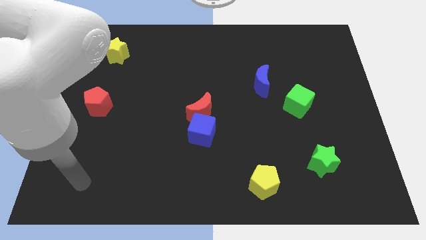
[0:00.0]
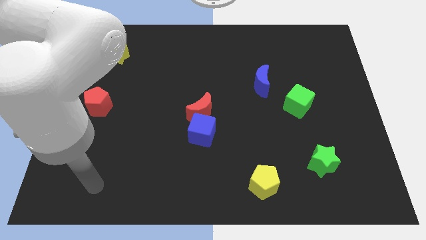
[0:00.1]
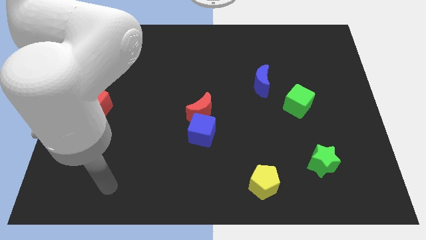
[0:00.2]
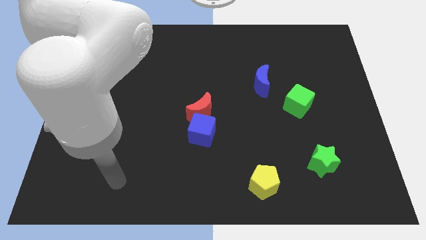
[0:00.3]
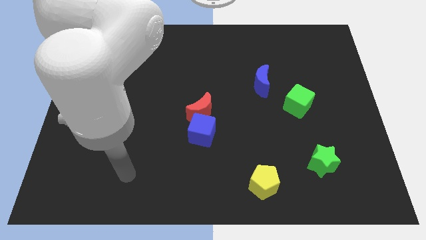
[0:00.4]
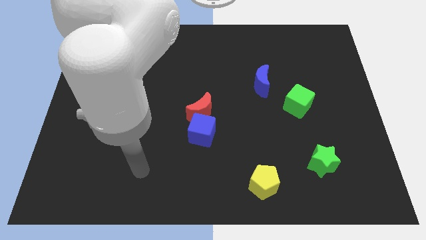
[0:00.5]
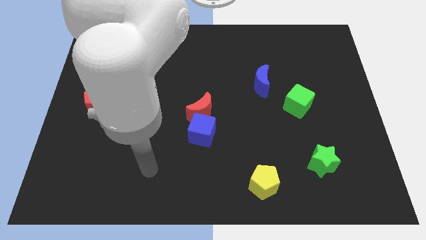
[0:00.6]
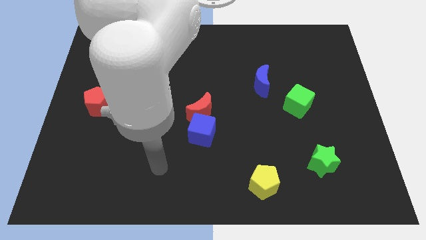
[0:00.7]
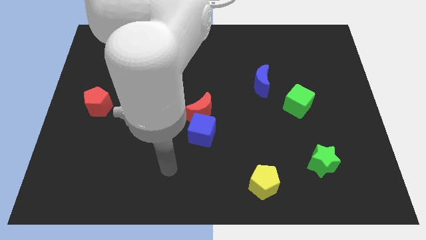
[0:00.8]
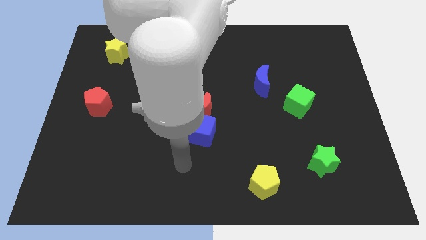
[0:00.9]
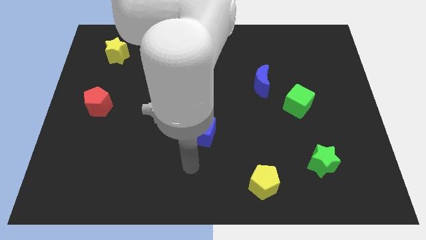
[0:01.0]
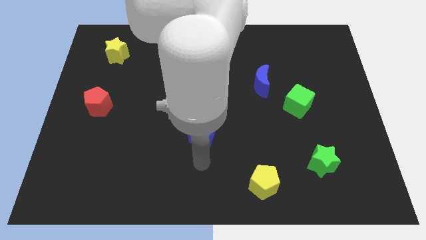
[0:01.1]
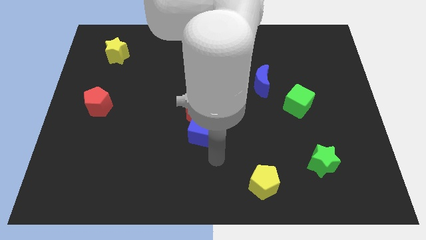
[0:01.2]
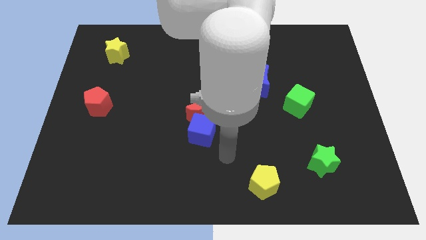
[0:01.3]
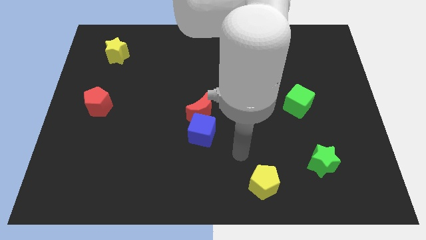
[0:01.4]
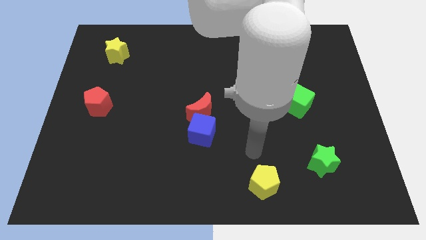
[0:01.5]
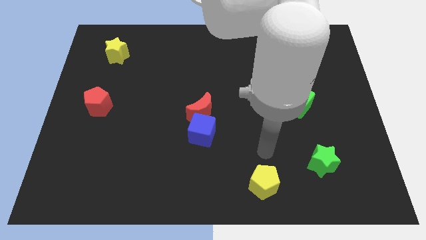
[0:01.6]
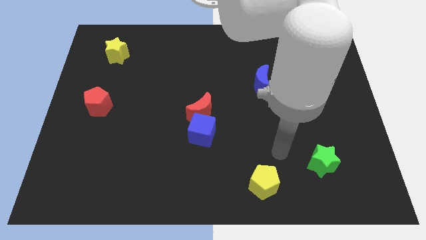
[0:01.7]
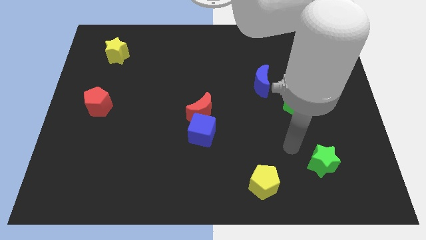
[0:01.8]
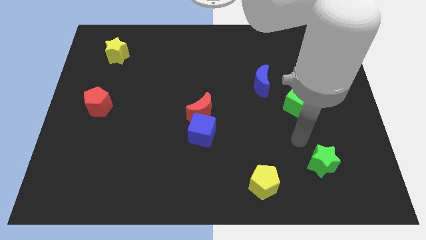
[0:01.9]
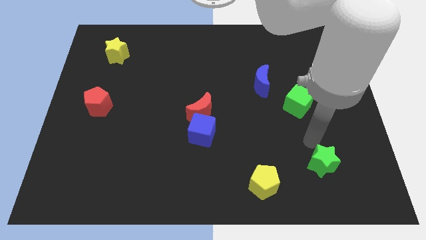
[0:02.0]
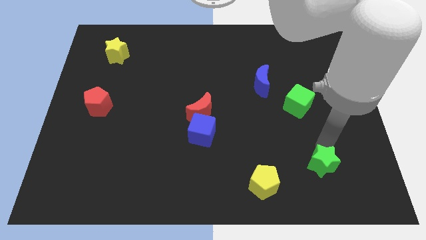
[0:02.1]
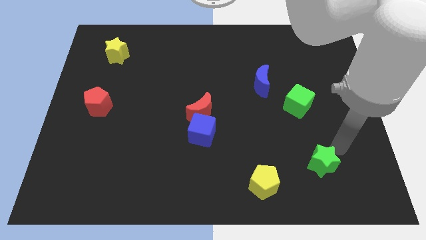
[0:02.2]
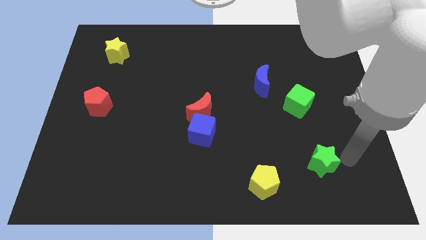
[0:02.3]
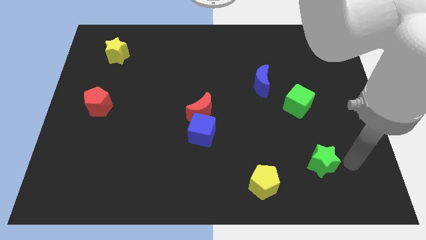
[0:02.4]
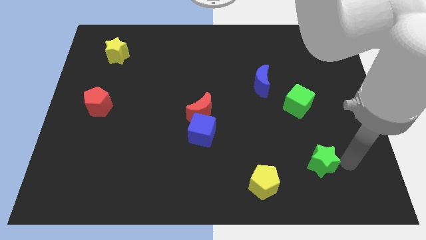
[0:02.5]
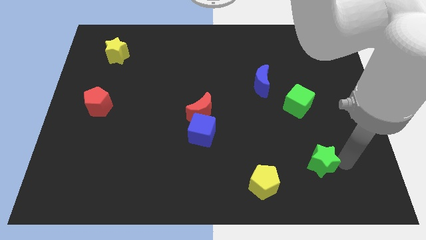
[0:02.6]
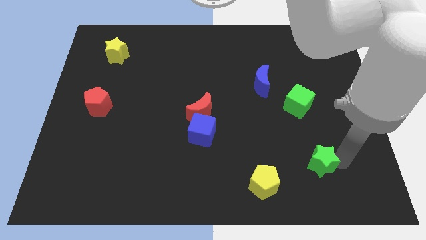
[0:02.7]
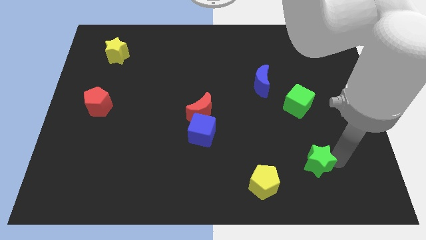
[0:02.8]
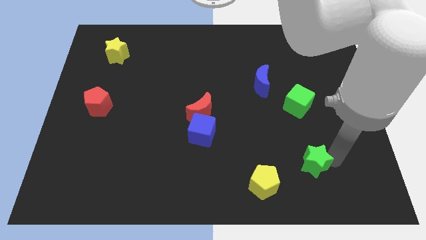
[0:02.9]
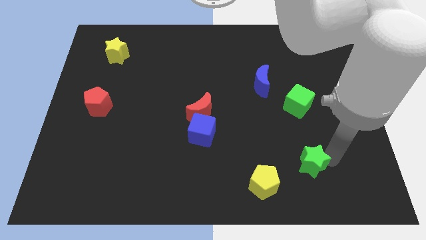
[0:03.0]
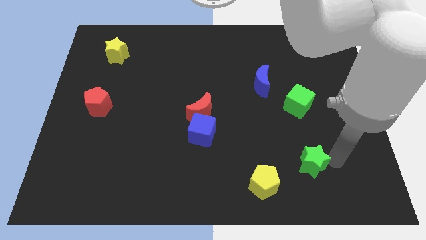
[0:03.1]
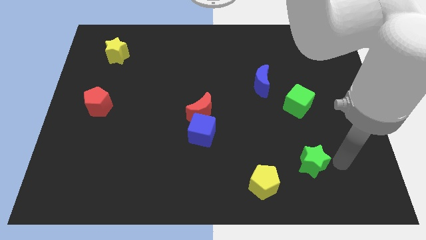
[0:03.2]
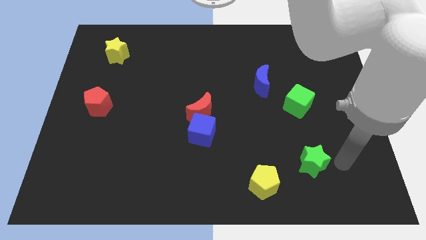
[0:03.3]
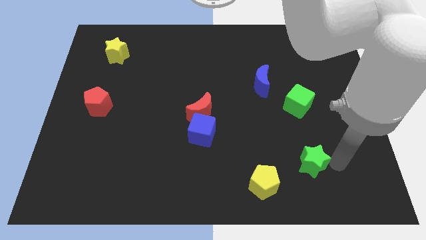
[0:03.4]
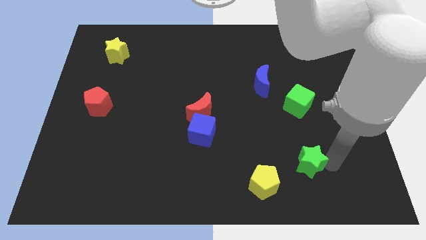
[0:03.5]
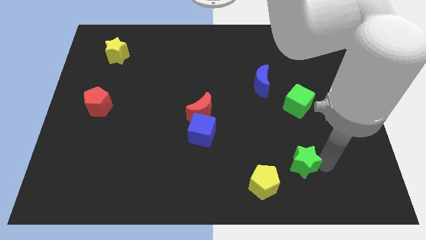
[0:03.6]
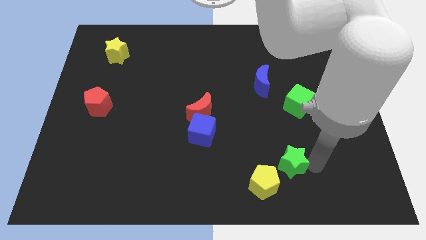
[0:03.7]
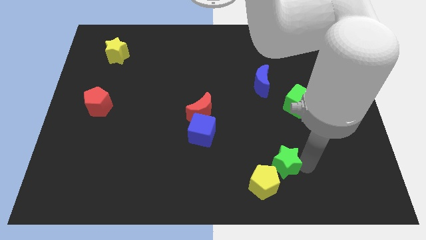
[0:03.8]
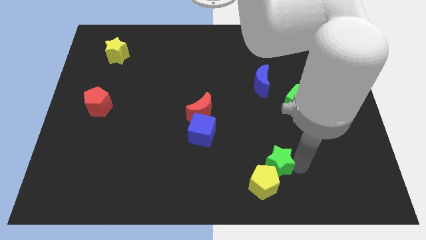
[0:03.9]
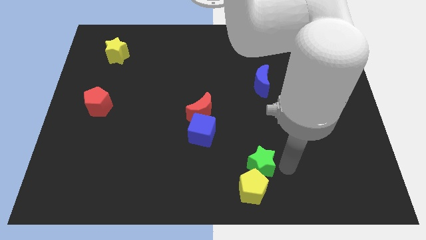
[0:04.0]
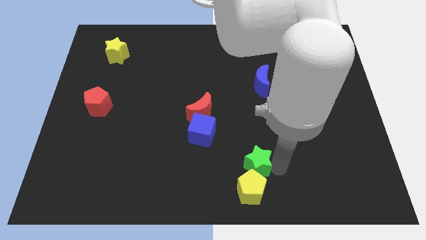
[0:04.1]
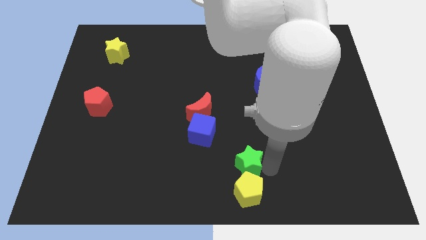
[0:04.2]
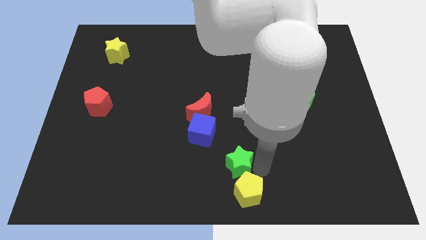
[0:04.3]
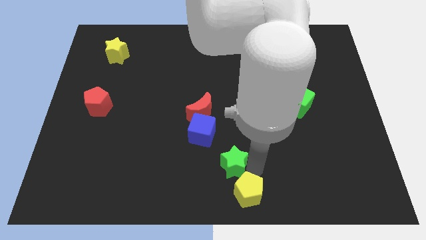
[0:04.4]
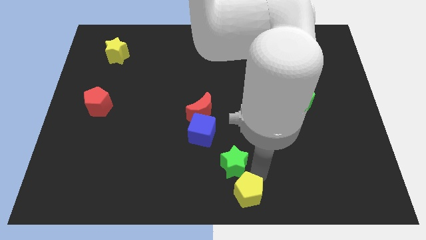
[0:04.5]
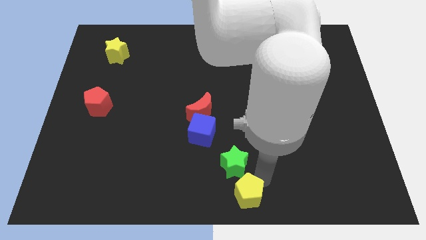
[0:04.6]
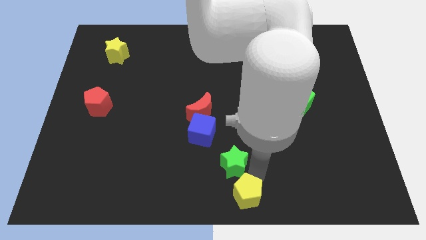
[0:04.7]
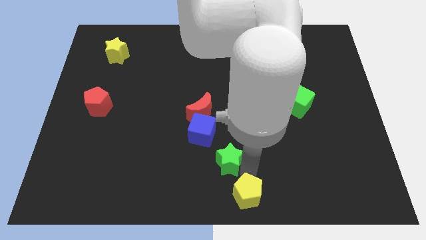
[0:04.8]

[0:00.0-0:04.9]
move the green star to the left

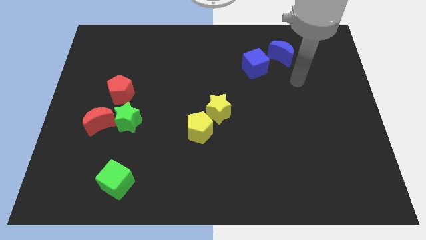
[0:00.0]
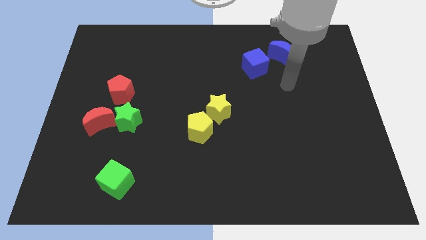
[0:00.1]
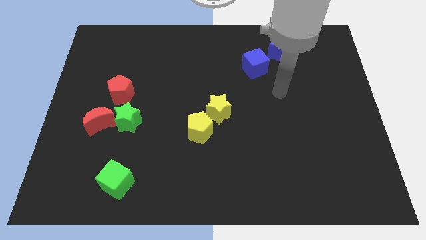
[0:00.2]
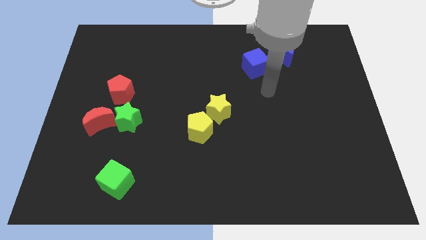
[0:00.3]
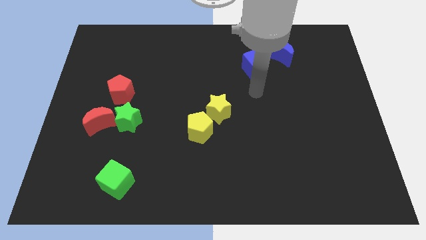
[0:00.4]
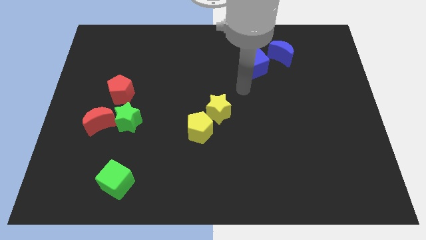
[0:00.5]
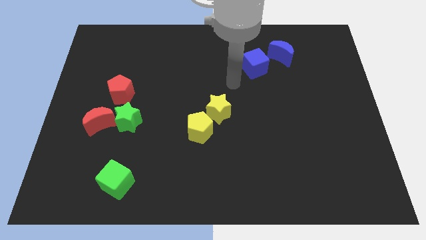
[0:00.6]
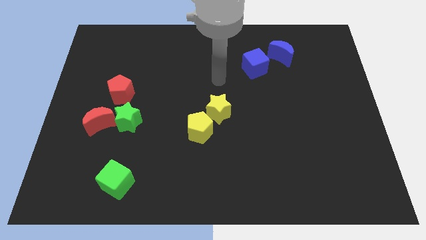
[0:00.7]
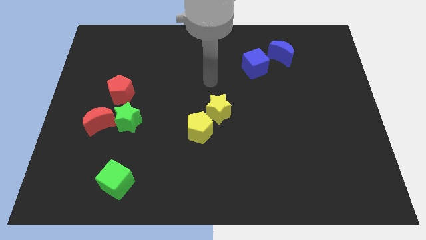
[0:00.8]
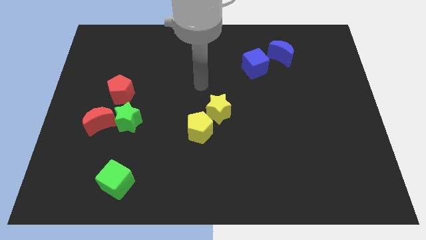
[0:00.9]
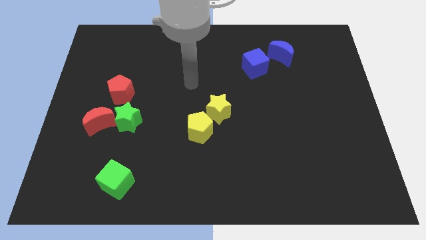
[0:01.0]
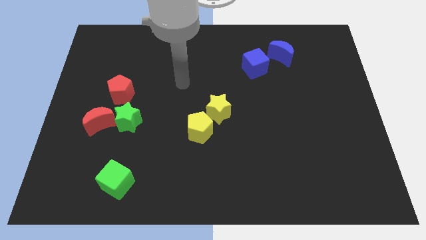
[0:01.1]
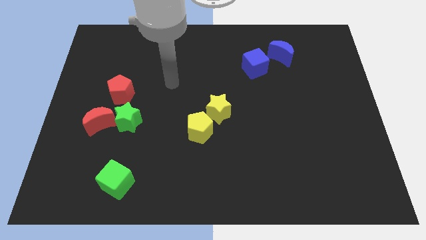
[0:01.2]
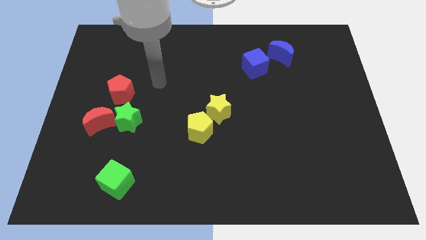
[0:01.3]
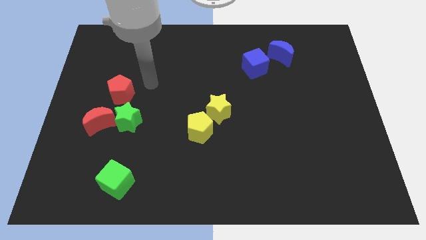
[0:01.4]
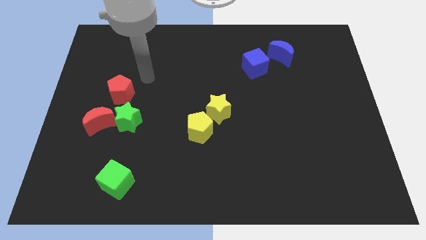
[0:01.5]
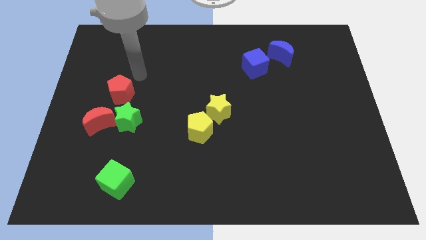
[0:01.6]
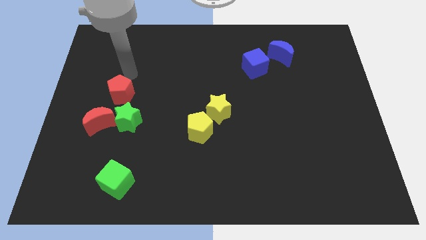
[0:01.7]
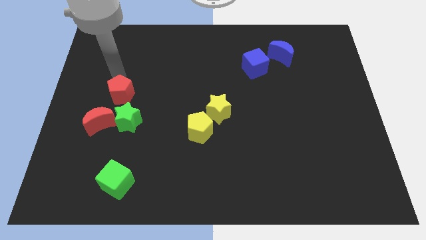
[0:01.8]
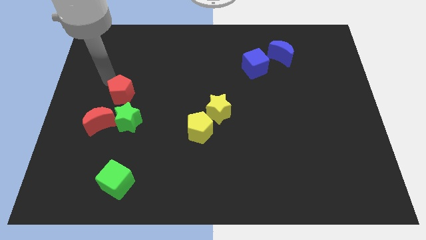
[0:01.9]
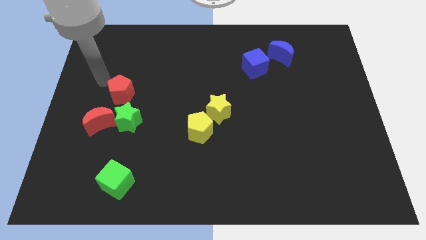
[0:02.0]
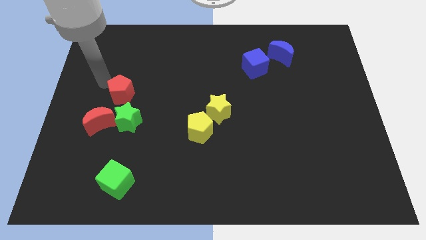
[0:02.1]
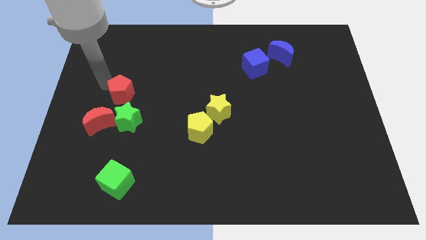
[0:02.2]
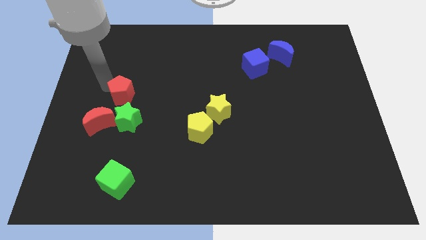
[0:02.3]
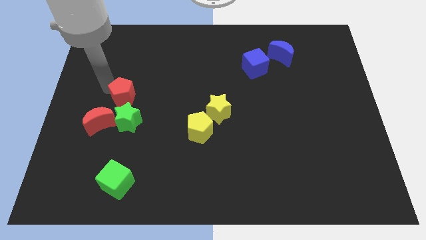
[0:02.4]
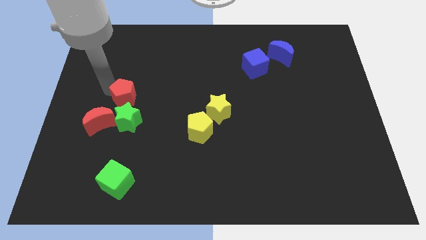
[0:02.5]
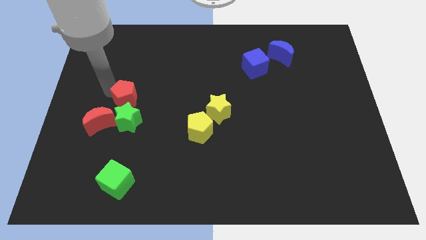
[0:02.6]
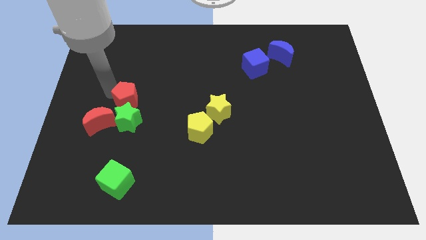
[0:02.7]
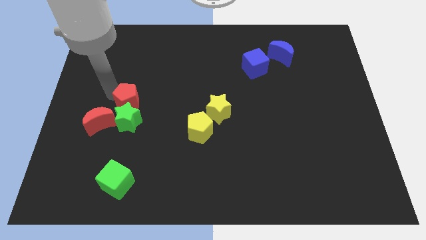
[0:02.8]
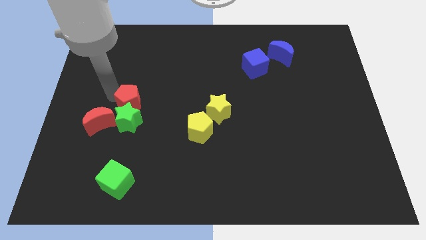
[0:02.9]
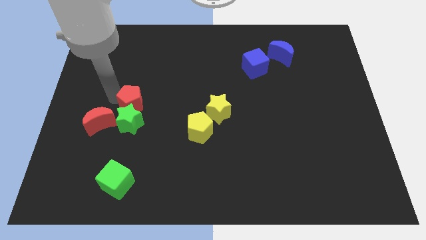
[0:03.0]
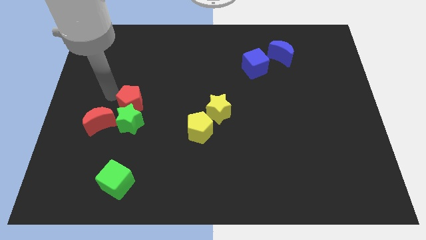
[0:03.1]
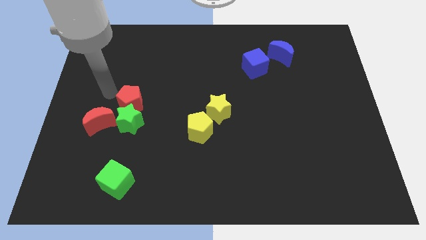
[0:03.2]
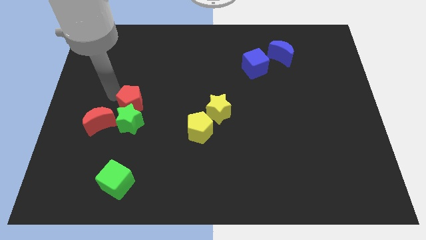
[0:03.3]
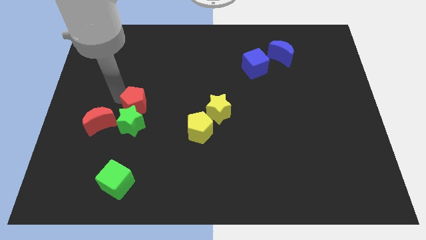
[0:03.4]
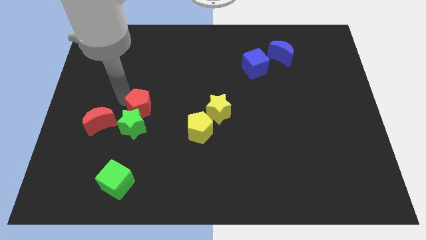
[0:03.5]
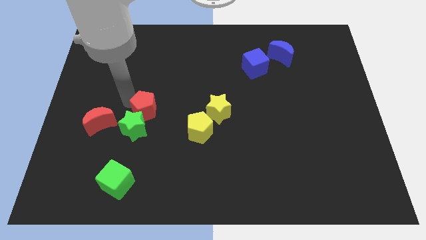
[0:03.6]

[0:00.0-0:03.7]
slightly move the red pentagon diagonally downwards and right
